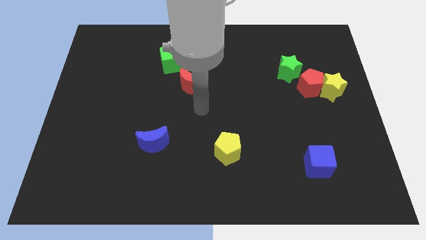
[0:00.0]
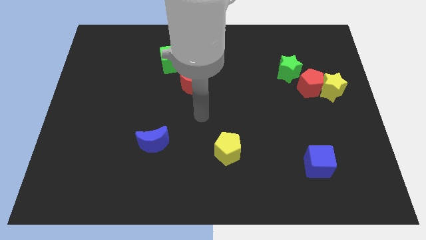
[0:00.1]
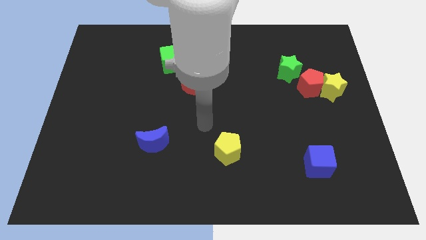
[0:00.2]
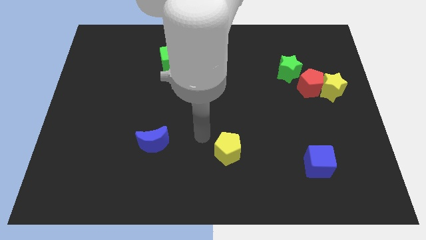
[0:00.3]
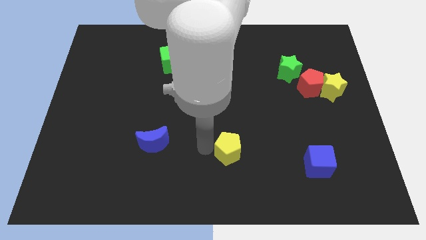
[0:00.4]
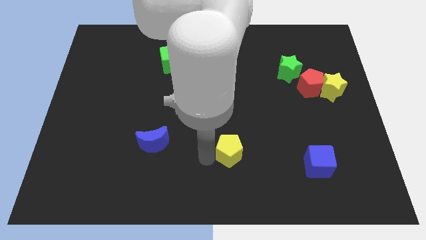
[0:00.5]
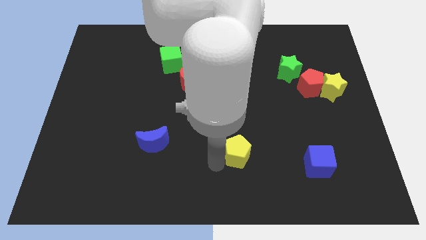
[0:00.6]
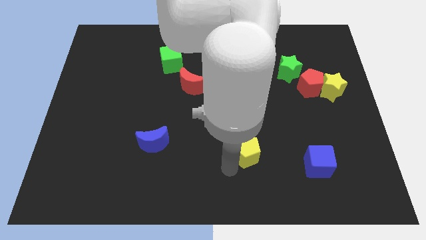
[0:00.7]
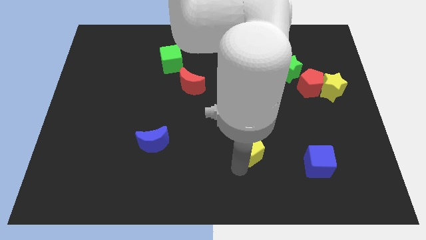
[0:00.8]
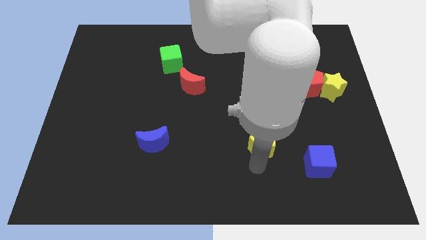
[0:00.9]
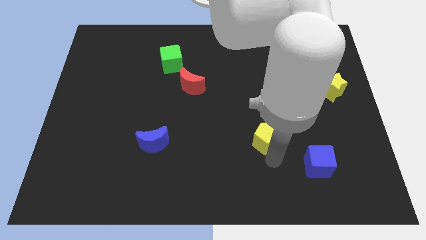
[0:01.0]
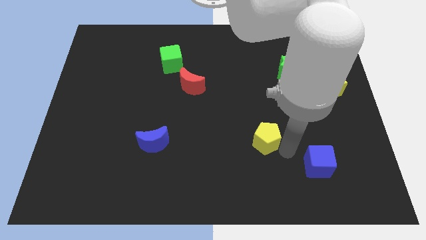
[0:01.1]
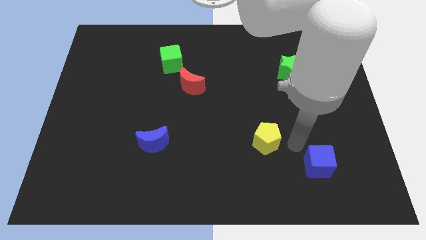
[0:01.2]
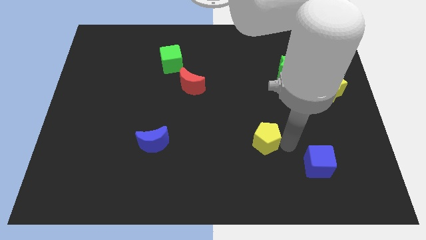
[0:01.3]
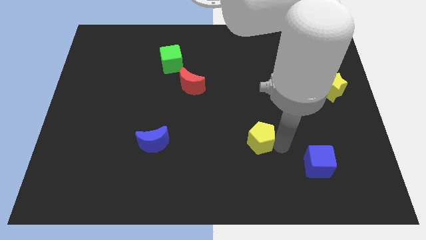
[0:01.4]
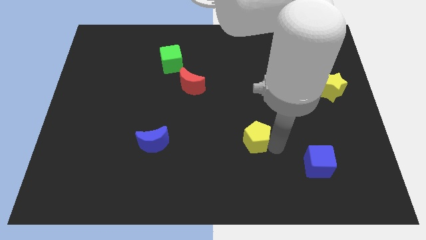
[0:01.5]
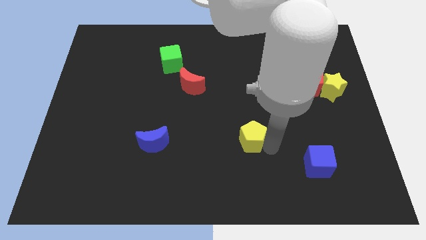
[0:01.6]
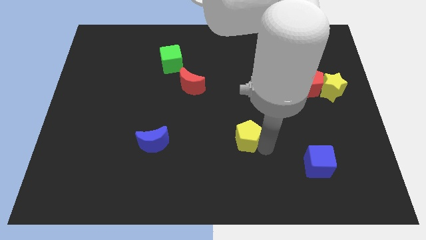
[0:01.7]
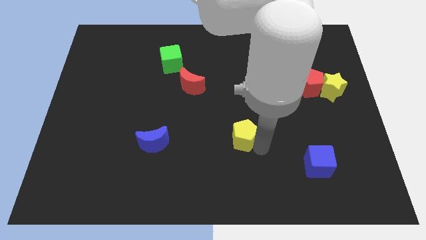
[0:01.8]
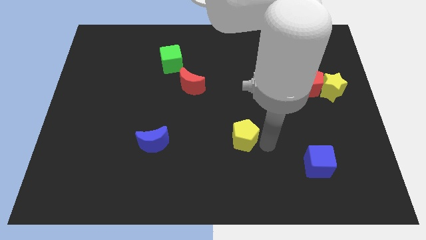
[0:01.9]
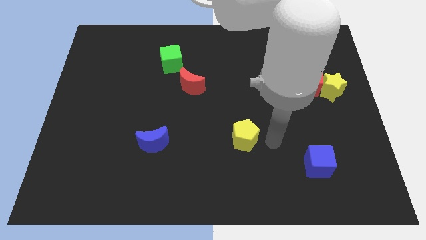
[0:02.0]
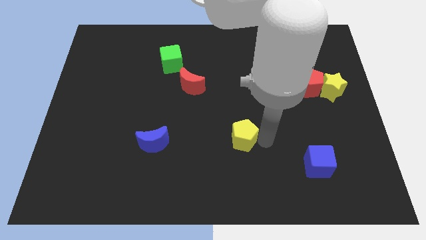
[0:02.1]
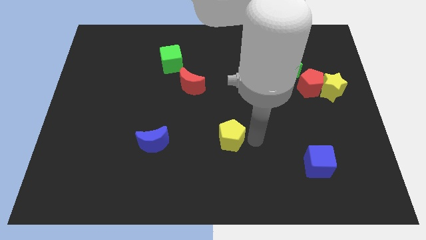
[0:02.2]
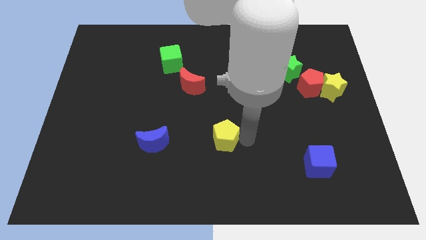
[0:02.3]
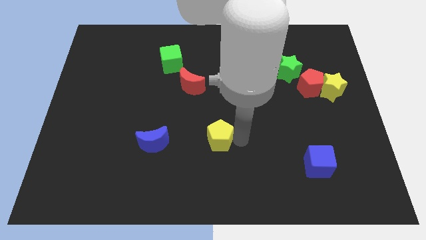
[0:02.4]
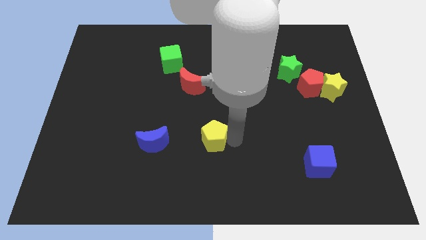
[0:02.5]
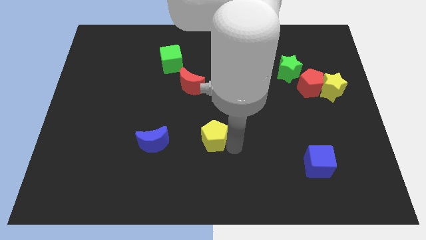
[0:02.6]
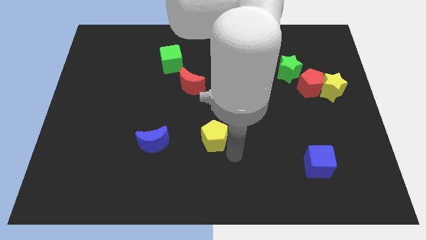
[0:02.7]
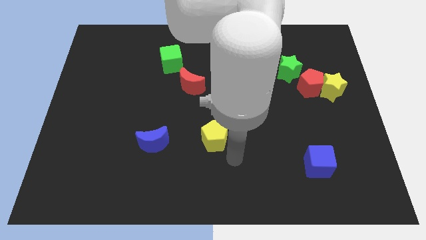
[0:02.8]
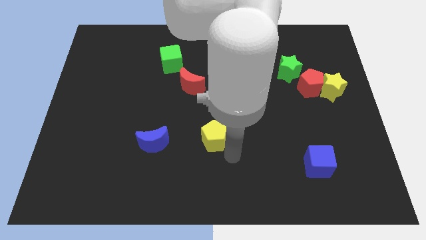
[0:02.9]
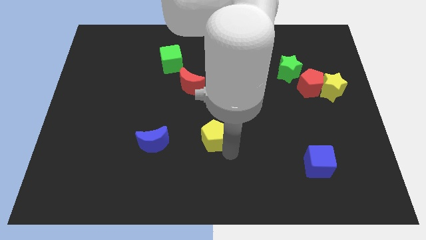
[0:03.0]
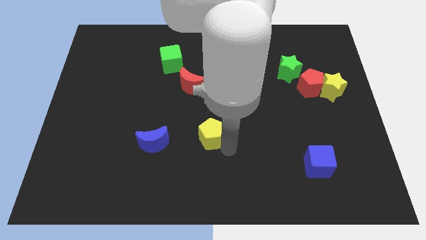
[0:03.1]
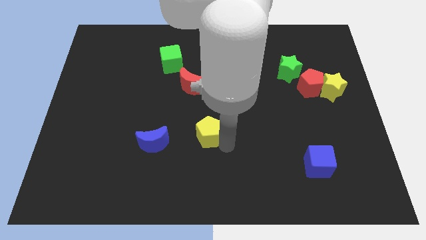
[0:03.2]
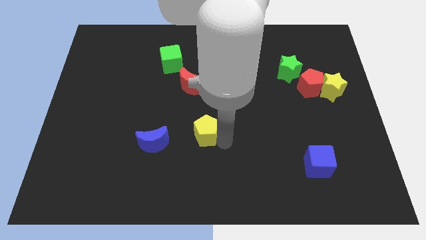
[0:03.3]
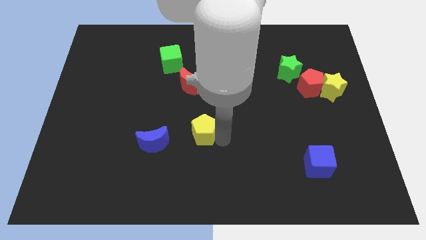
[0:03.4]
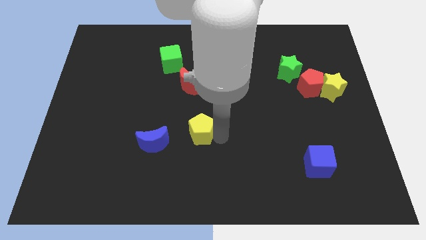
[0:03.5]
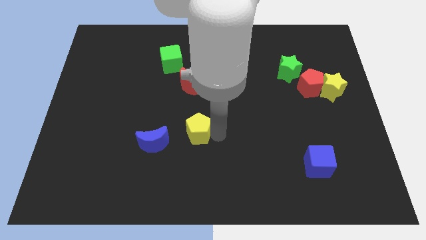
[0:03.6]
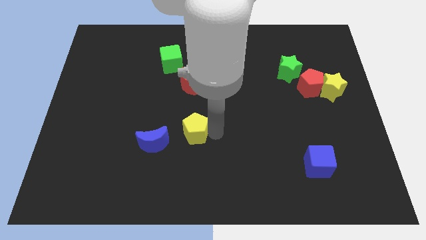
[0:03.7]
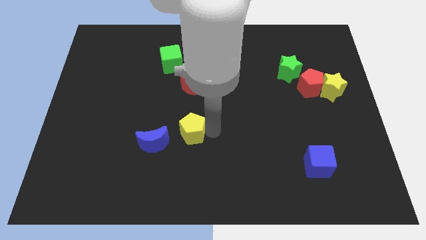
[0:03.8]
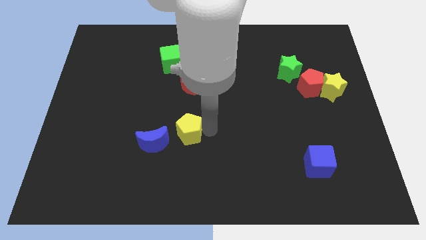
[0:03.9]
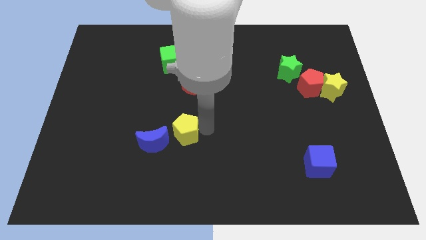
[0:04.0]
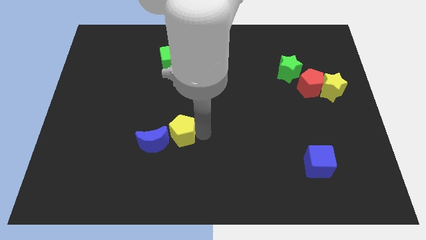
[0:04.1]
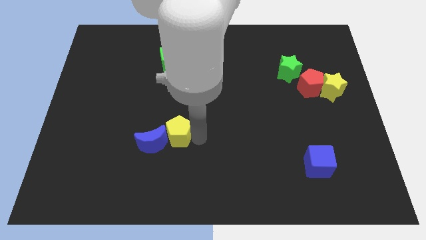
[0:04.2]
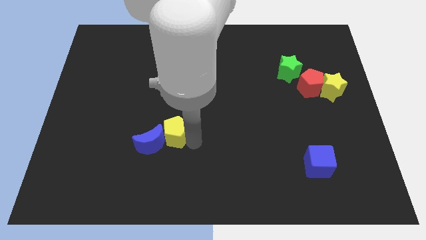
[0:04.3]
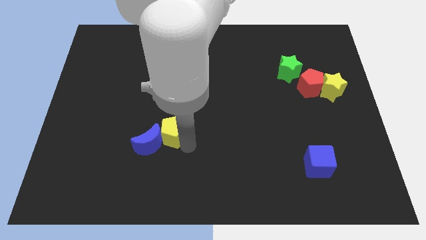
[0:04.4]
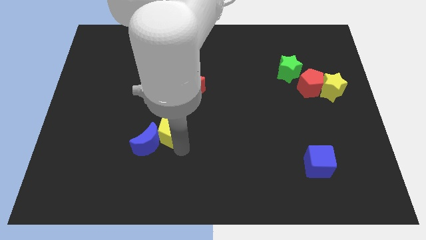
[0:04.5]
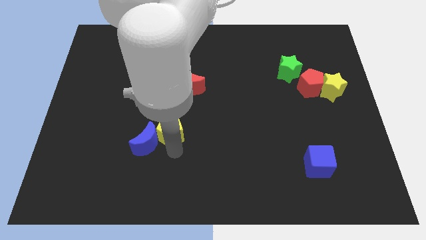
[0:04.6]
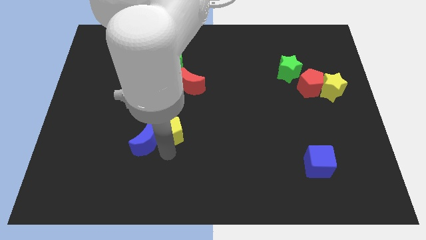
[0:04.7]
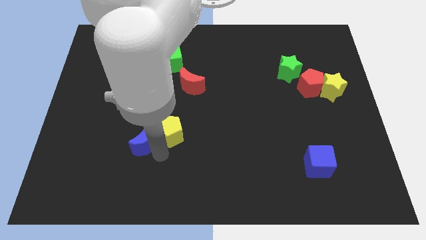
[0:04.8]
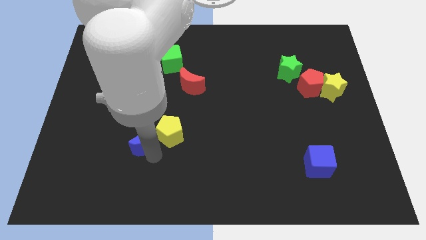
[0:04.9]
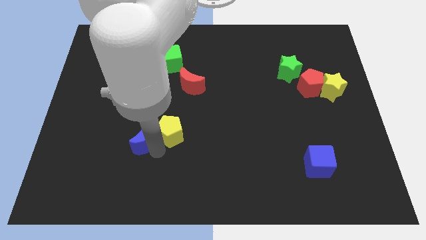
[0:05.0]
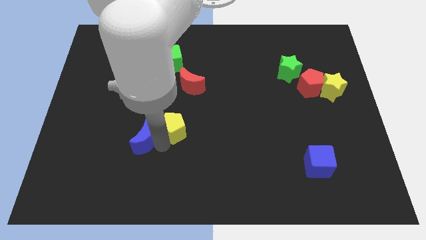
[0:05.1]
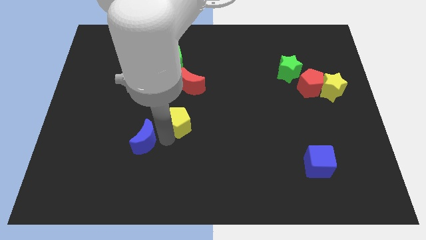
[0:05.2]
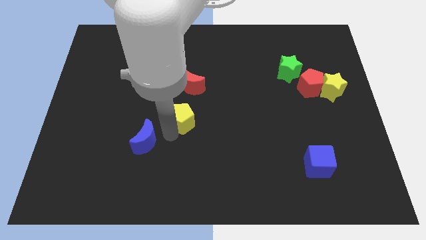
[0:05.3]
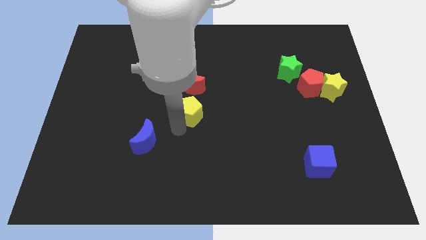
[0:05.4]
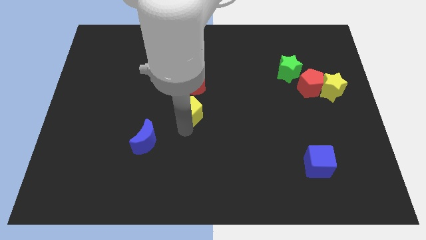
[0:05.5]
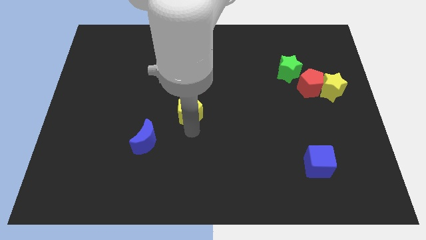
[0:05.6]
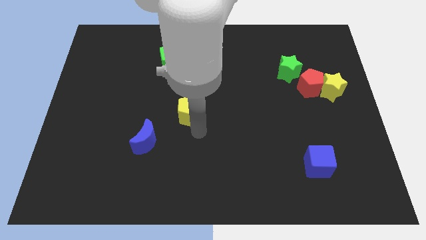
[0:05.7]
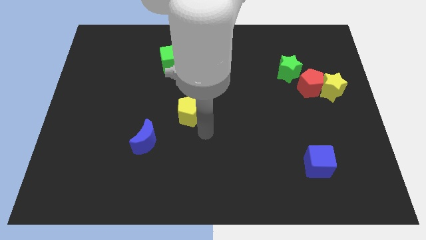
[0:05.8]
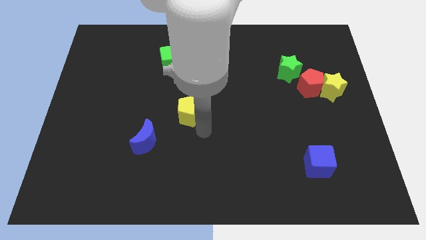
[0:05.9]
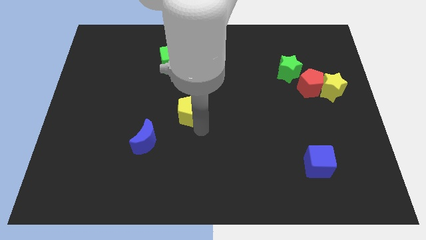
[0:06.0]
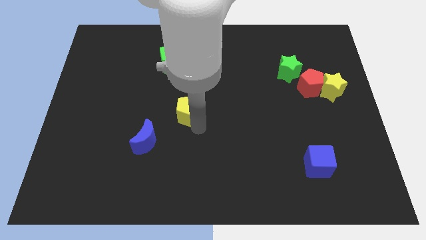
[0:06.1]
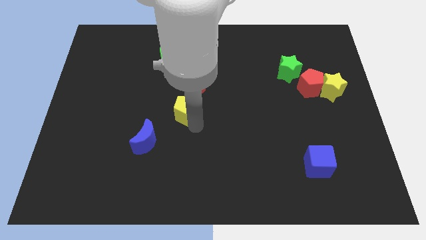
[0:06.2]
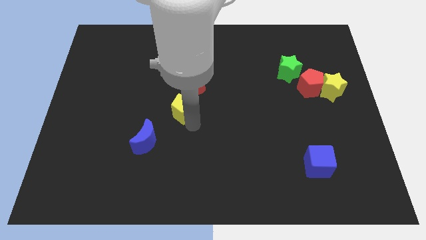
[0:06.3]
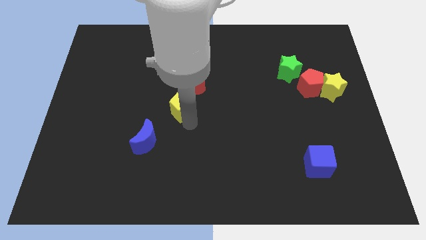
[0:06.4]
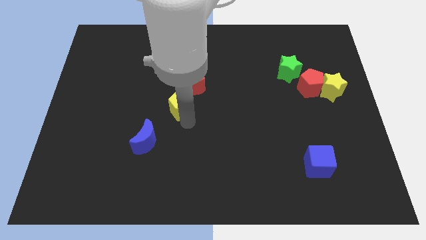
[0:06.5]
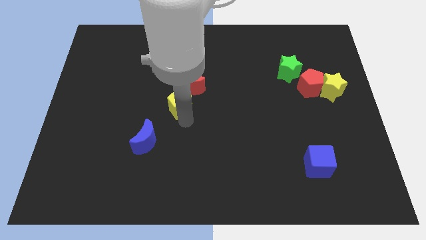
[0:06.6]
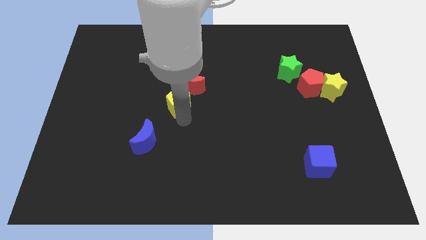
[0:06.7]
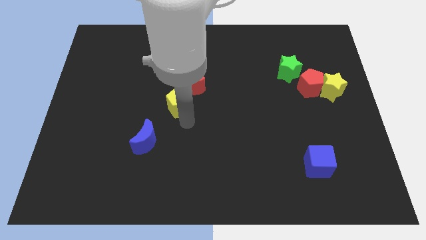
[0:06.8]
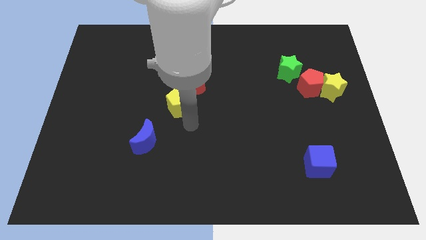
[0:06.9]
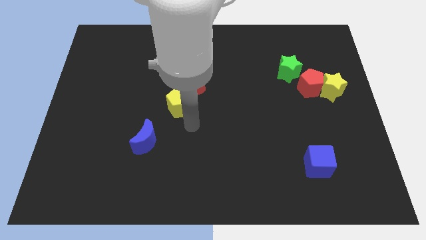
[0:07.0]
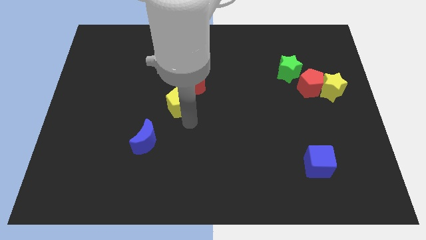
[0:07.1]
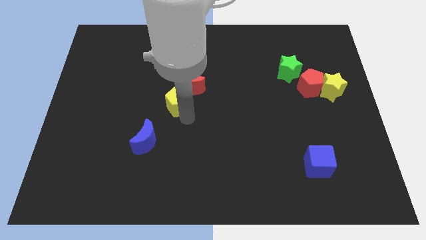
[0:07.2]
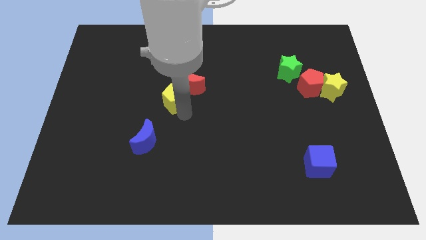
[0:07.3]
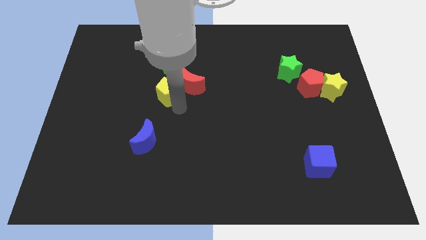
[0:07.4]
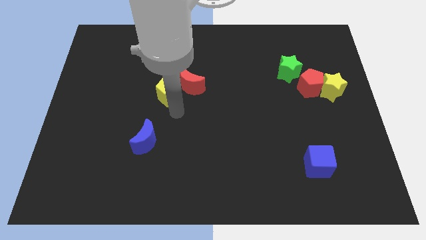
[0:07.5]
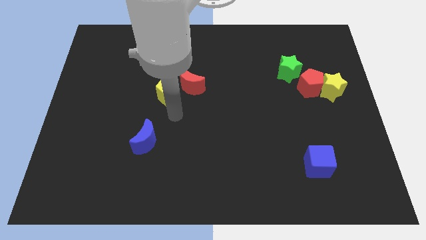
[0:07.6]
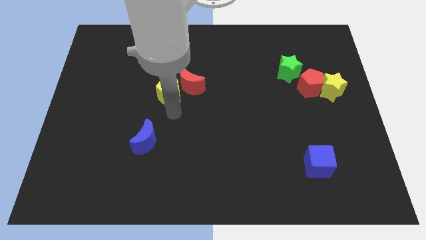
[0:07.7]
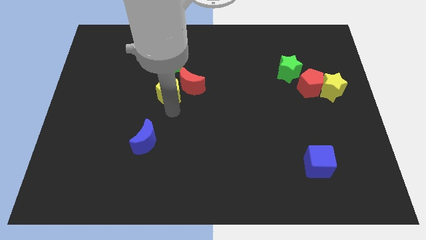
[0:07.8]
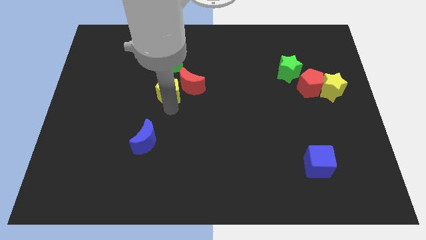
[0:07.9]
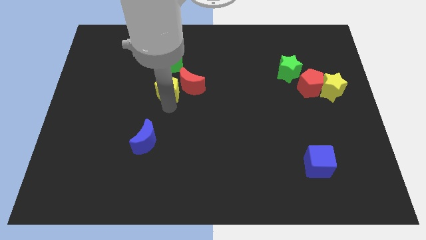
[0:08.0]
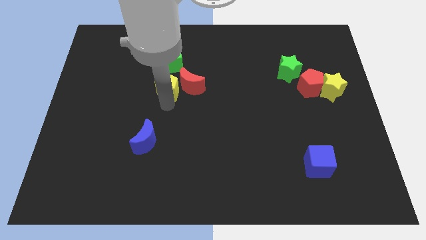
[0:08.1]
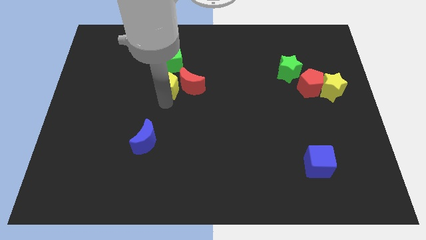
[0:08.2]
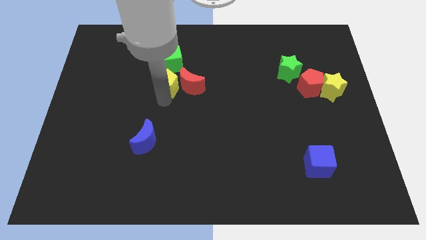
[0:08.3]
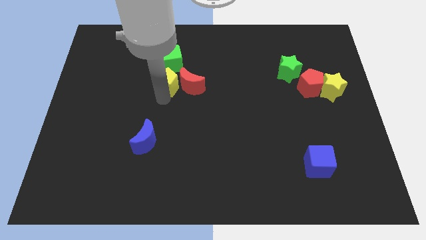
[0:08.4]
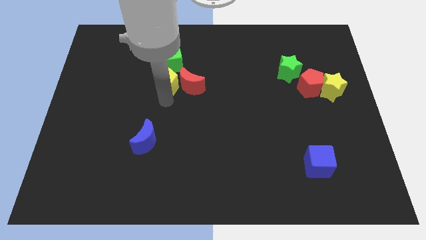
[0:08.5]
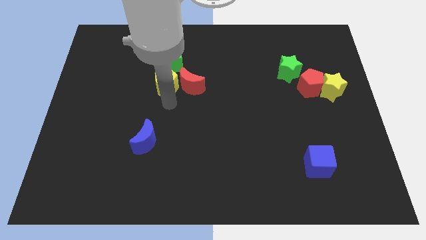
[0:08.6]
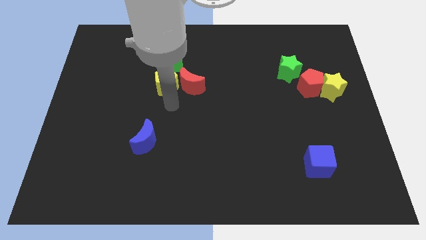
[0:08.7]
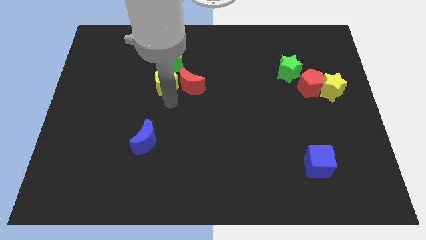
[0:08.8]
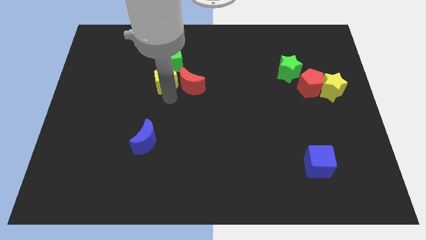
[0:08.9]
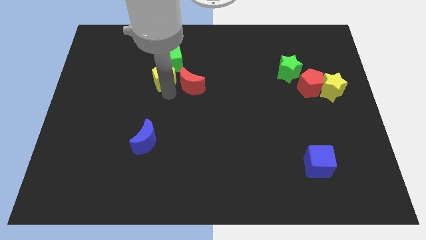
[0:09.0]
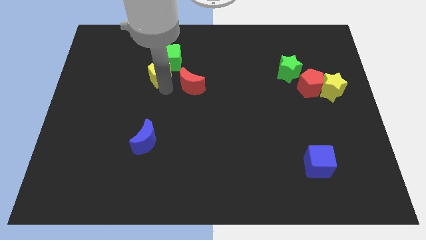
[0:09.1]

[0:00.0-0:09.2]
put the yellow pentagon next to the green cube
